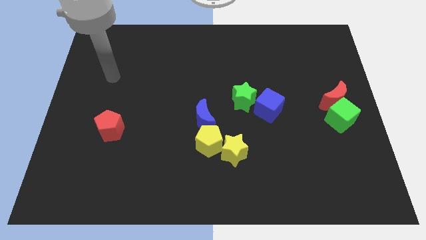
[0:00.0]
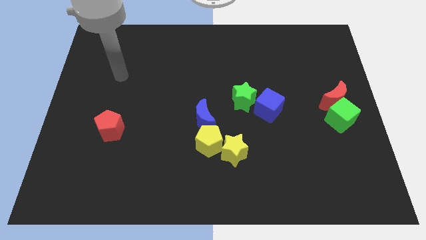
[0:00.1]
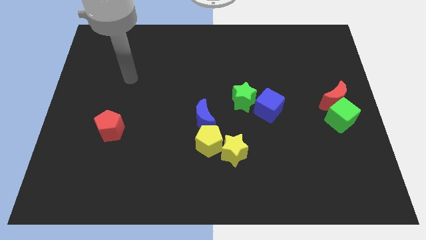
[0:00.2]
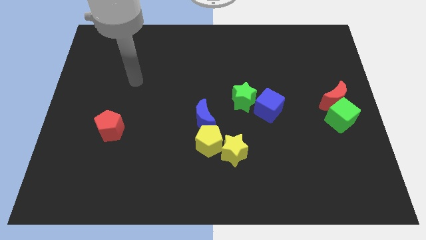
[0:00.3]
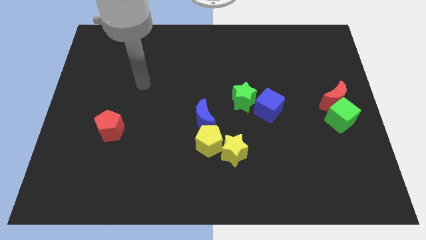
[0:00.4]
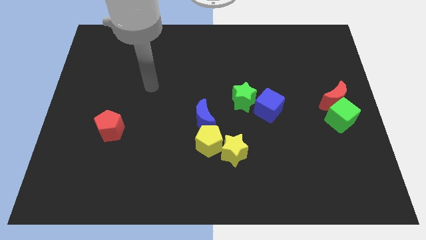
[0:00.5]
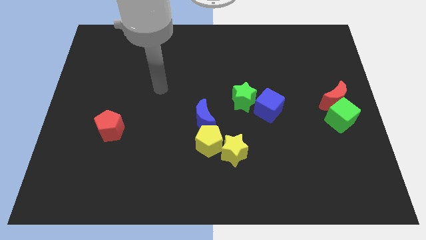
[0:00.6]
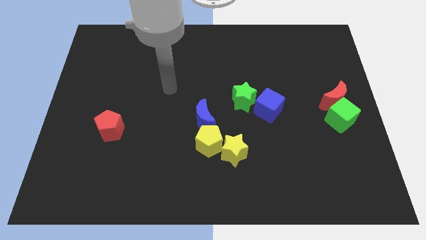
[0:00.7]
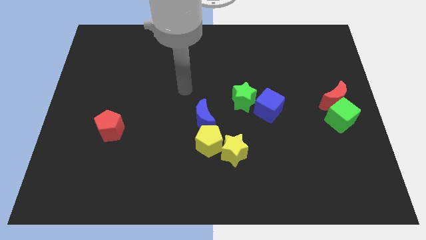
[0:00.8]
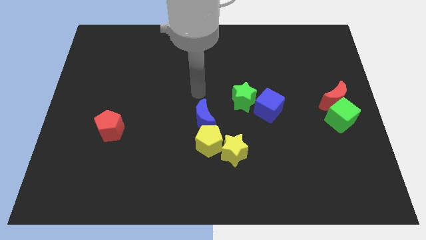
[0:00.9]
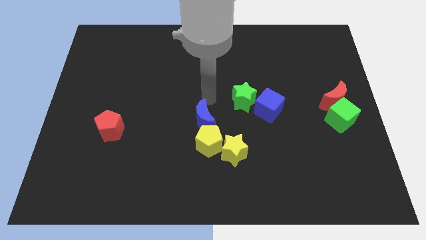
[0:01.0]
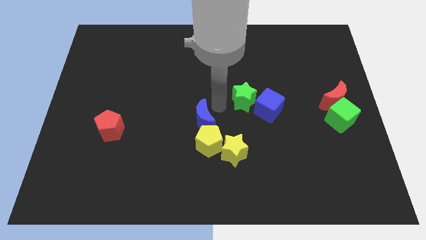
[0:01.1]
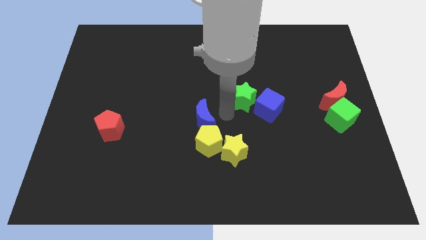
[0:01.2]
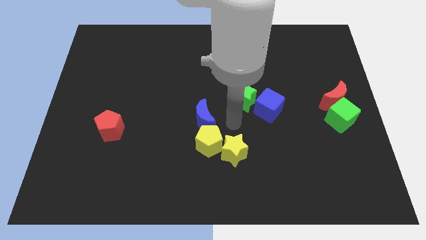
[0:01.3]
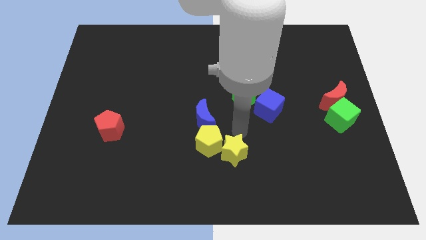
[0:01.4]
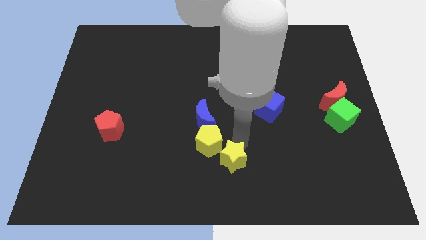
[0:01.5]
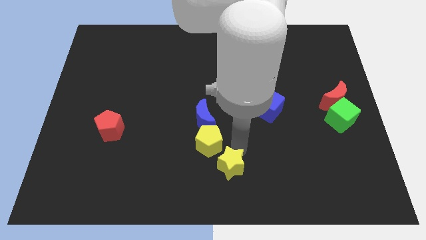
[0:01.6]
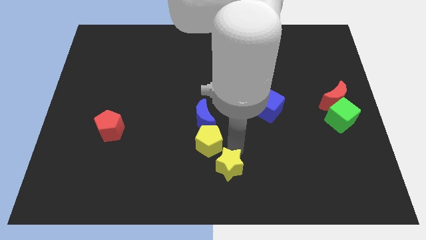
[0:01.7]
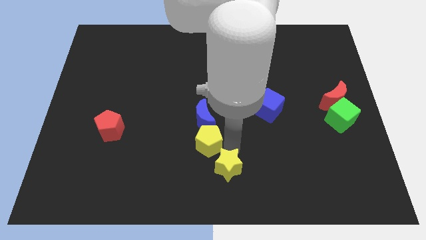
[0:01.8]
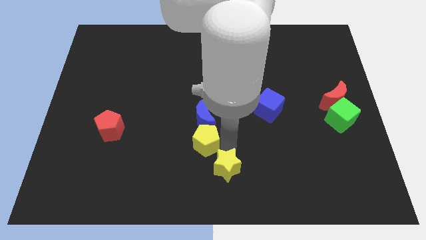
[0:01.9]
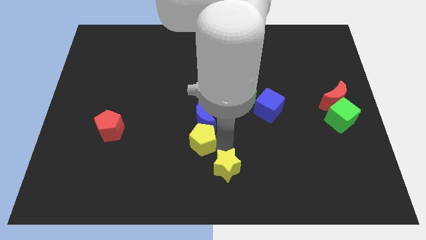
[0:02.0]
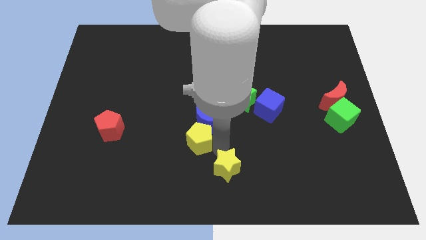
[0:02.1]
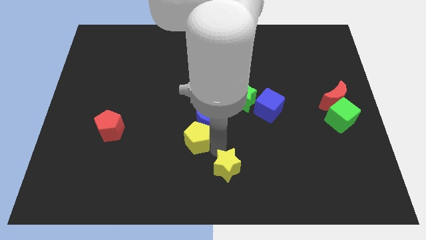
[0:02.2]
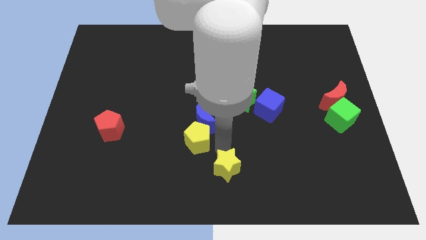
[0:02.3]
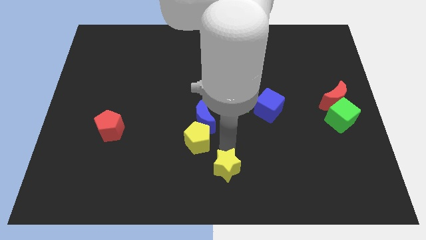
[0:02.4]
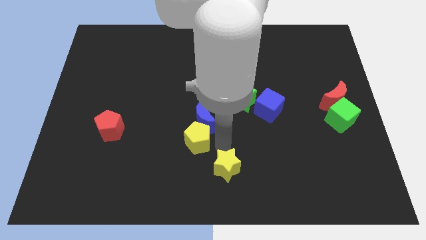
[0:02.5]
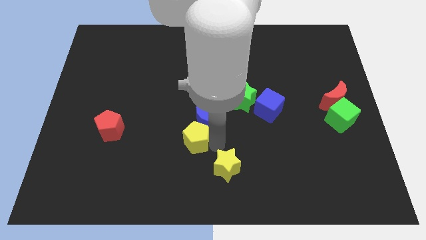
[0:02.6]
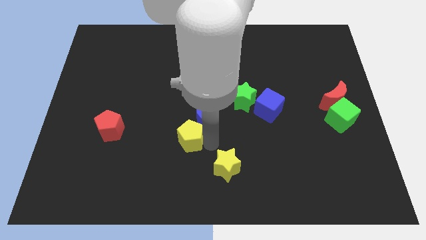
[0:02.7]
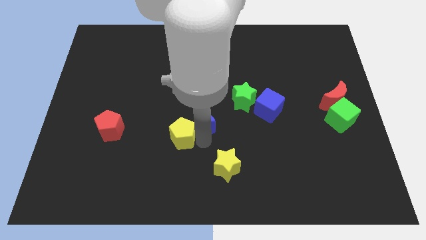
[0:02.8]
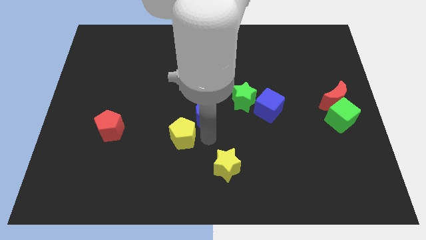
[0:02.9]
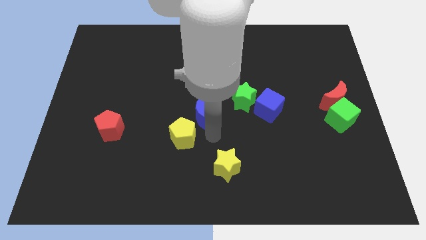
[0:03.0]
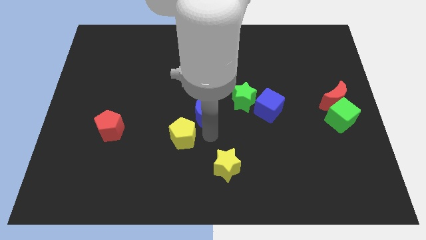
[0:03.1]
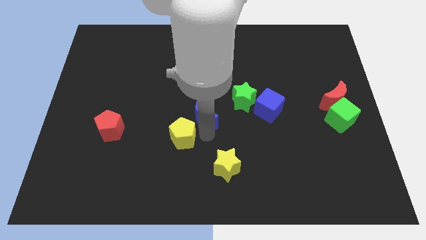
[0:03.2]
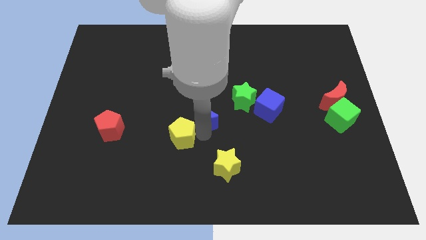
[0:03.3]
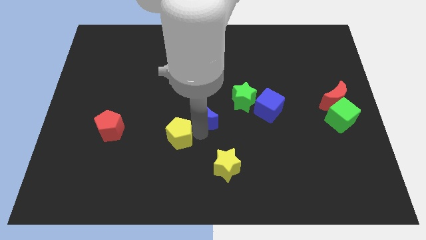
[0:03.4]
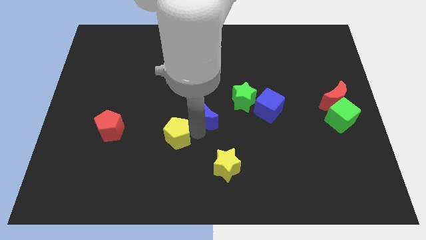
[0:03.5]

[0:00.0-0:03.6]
move the yellow pentagon somewhat to the left

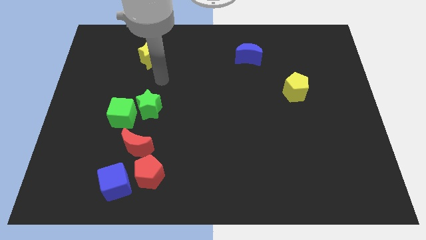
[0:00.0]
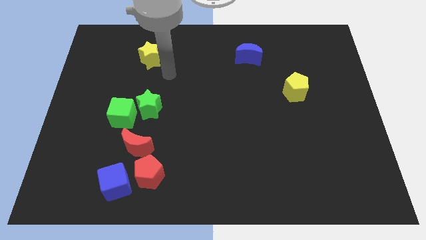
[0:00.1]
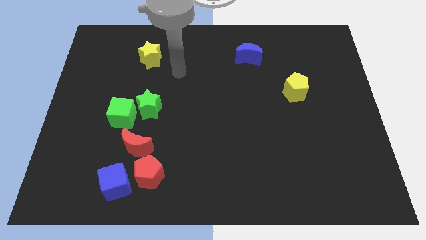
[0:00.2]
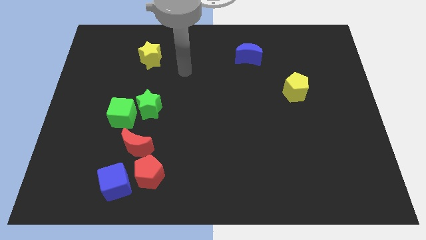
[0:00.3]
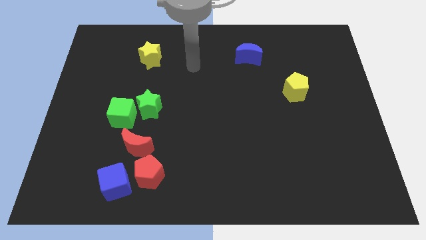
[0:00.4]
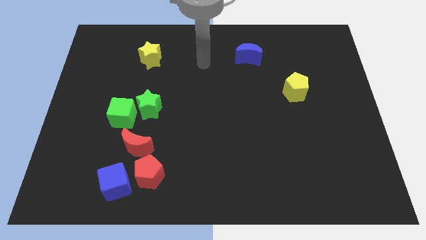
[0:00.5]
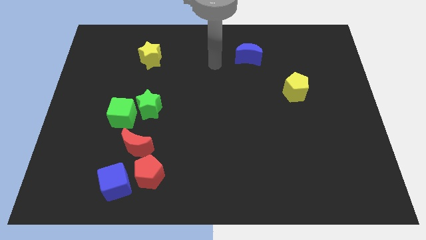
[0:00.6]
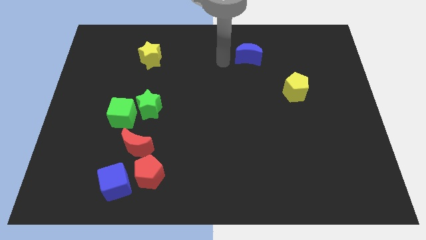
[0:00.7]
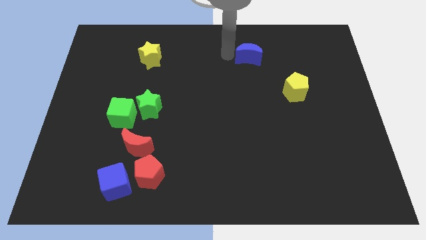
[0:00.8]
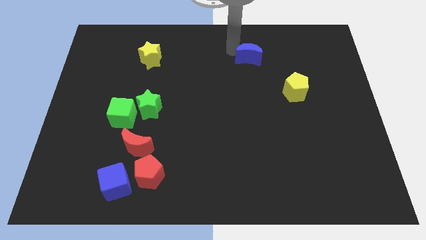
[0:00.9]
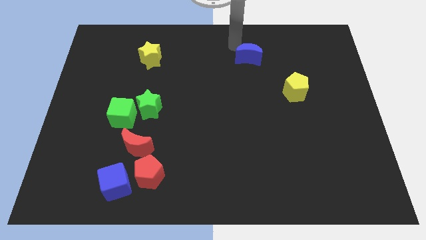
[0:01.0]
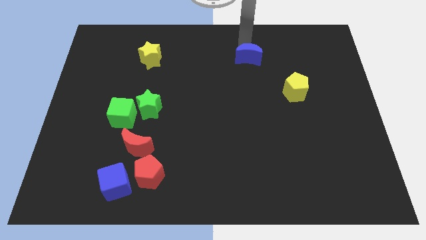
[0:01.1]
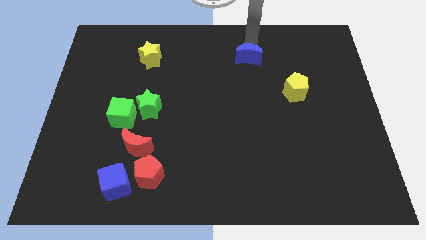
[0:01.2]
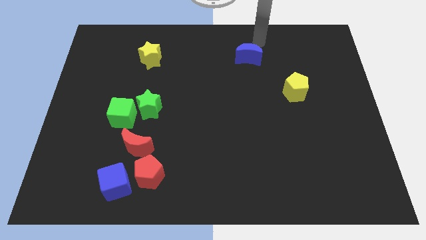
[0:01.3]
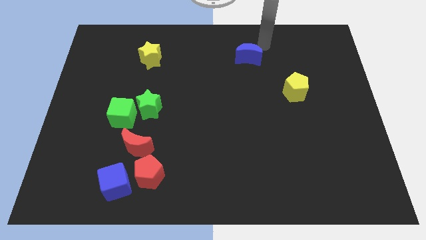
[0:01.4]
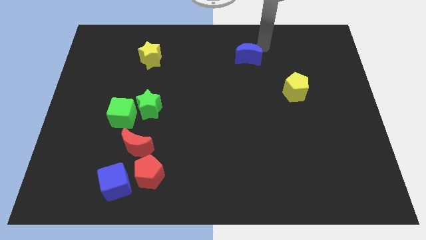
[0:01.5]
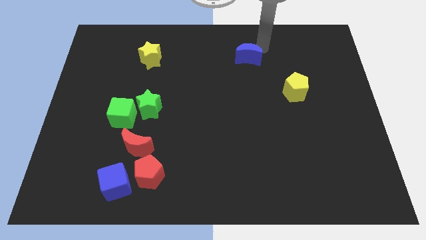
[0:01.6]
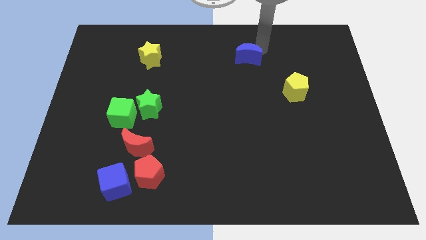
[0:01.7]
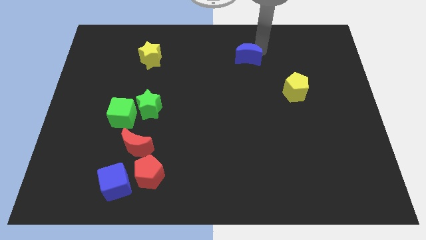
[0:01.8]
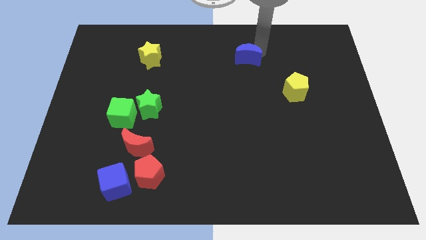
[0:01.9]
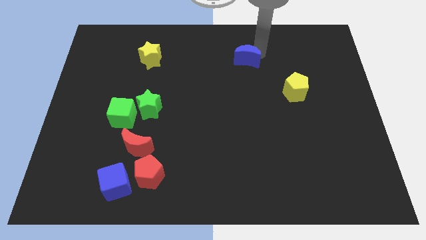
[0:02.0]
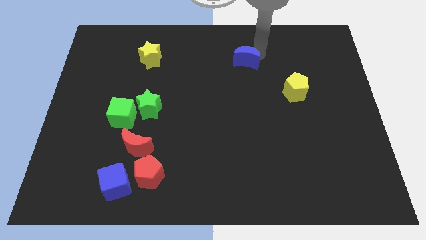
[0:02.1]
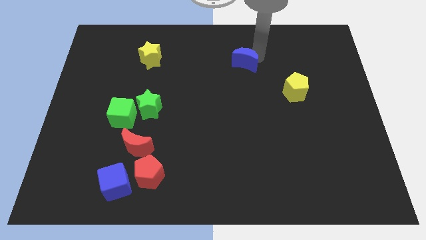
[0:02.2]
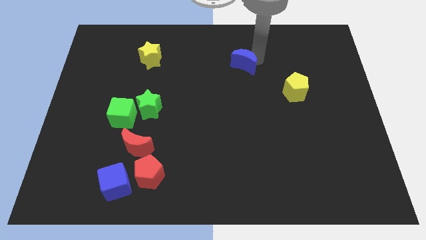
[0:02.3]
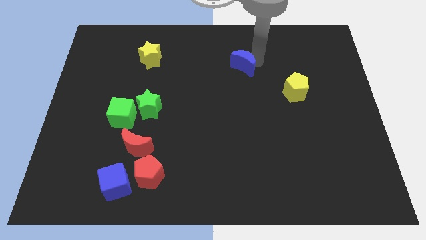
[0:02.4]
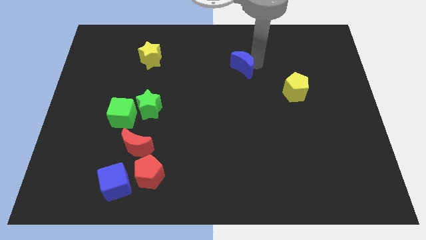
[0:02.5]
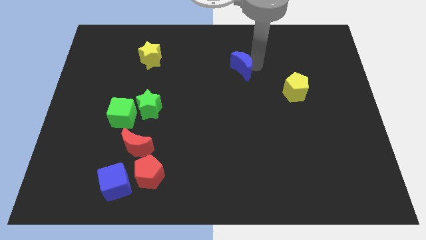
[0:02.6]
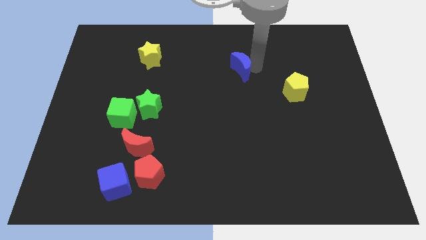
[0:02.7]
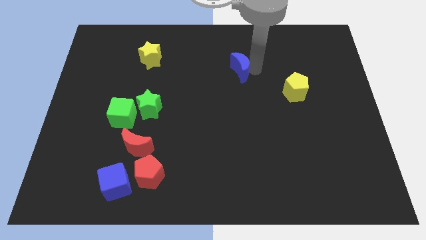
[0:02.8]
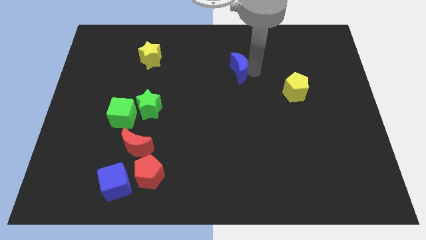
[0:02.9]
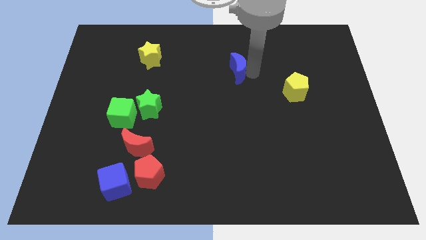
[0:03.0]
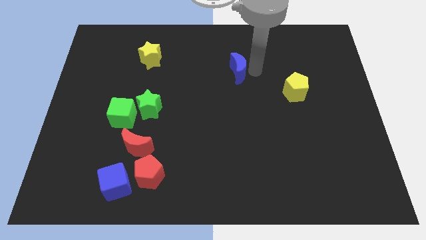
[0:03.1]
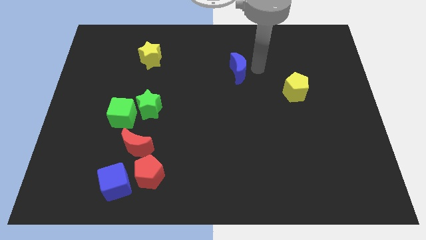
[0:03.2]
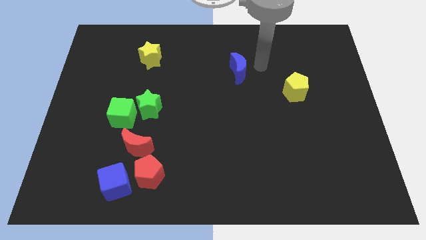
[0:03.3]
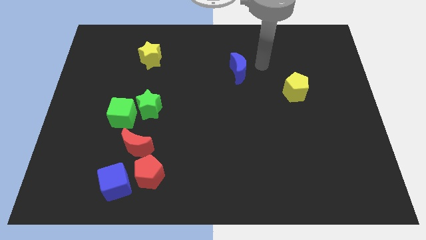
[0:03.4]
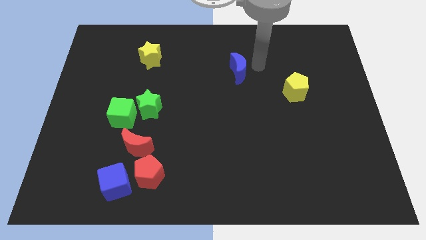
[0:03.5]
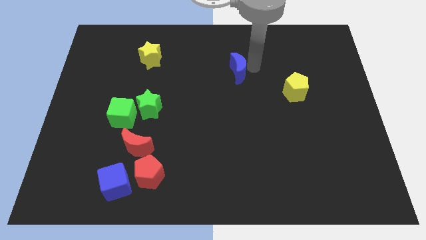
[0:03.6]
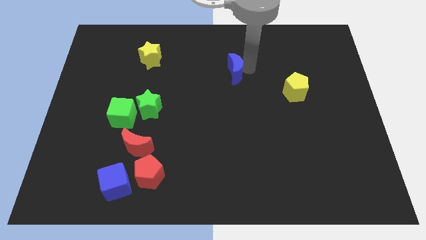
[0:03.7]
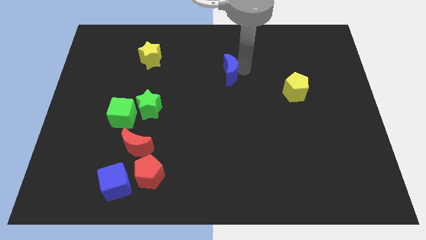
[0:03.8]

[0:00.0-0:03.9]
push the blue moon diagonally downwards and to the left a little bit

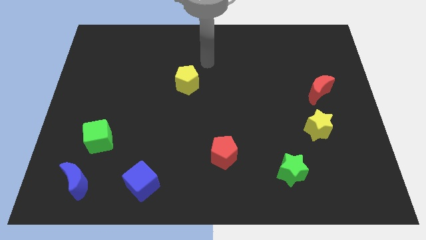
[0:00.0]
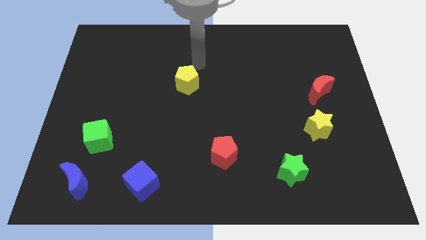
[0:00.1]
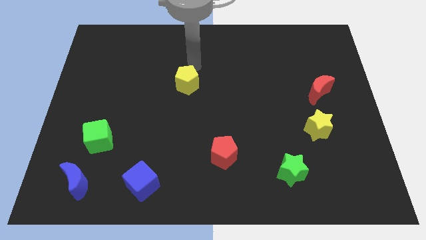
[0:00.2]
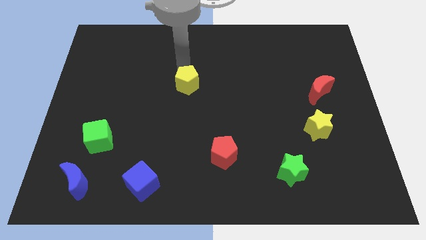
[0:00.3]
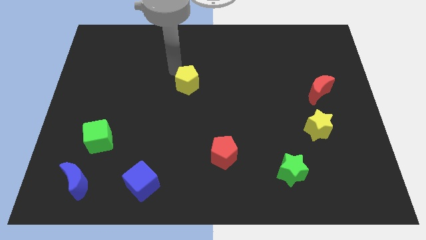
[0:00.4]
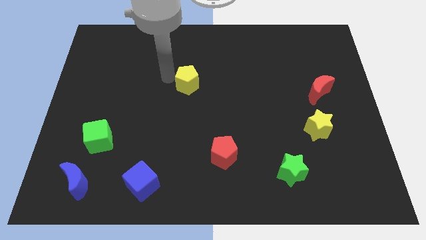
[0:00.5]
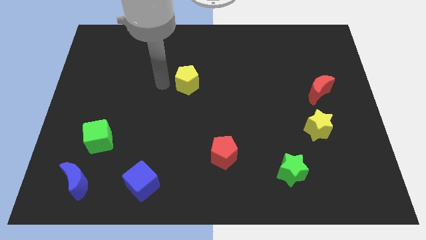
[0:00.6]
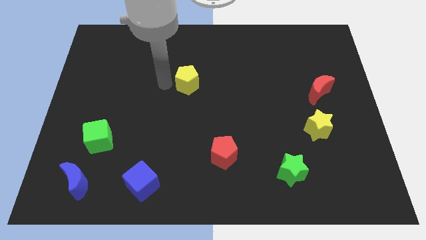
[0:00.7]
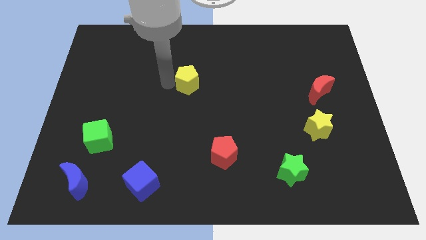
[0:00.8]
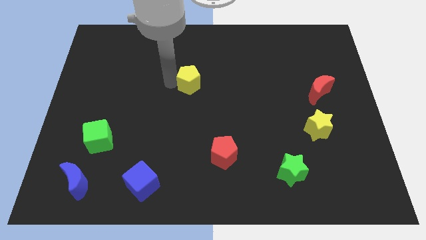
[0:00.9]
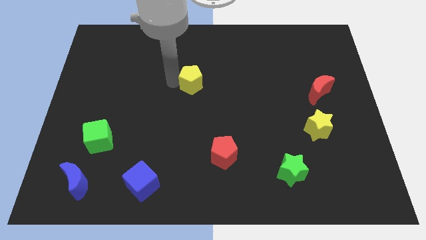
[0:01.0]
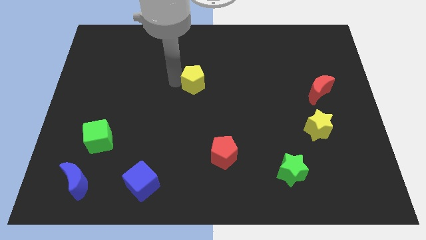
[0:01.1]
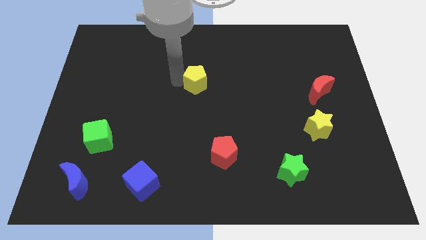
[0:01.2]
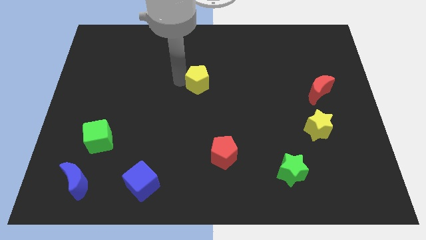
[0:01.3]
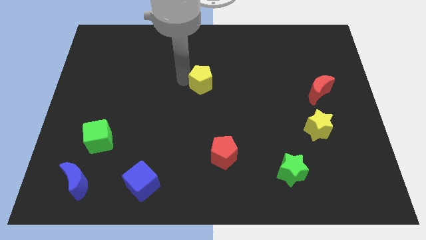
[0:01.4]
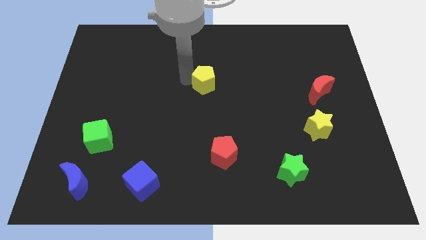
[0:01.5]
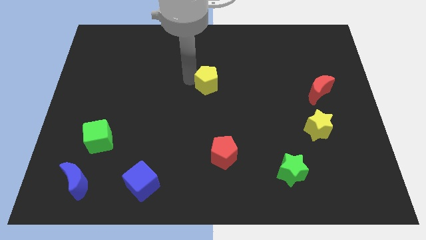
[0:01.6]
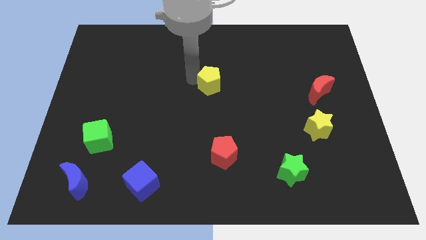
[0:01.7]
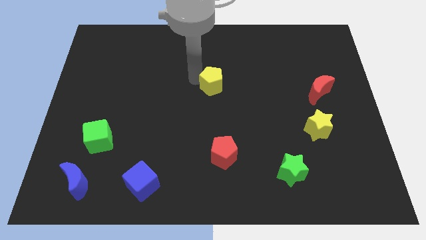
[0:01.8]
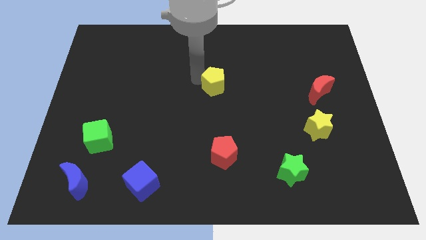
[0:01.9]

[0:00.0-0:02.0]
move the yellow pentagon a bit to the right
